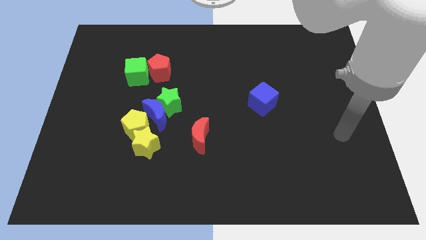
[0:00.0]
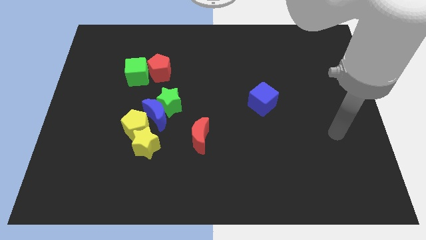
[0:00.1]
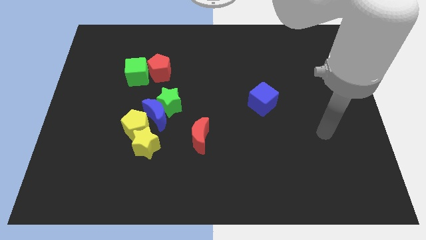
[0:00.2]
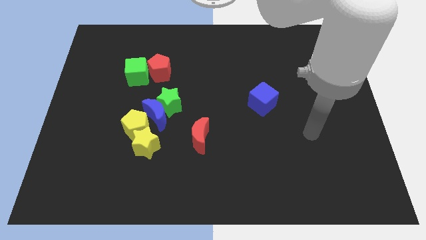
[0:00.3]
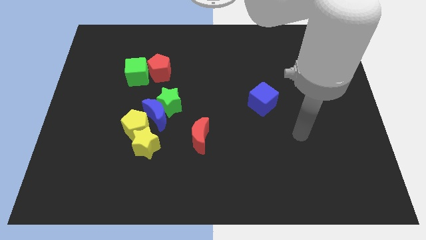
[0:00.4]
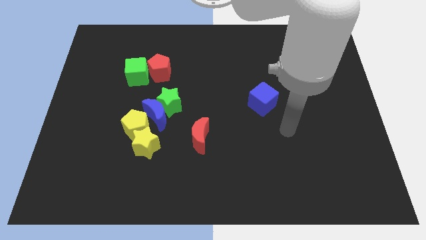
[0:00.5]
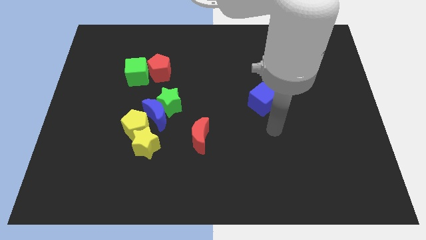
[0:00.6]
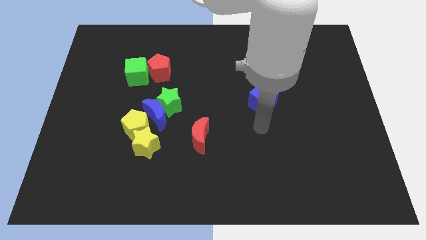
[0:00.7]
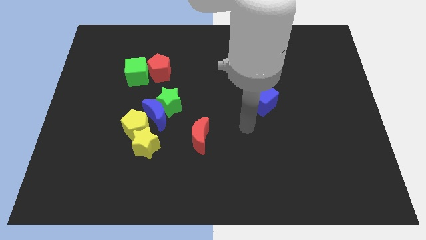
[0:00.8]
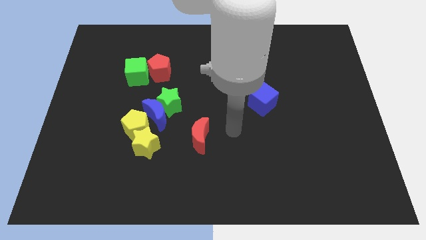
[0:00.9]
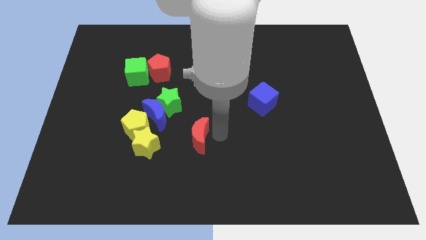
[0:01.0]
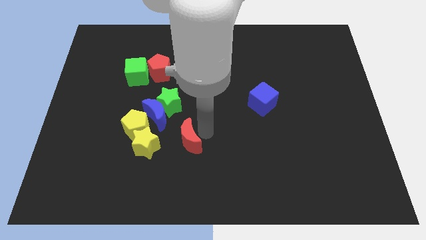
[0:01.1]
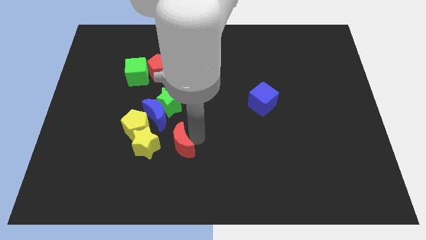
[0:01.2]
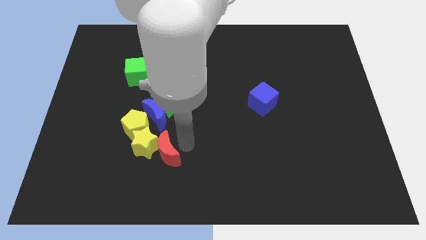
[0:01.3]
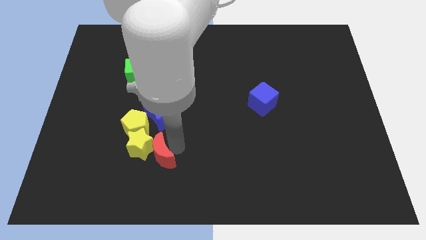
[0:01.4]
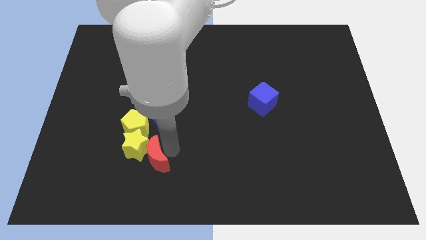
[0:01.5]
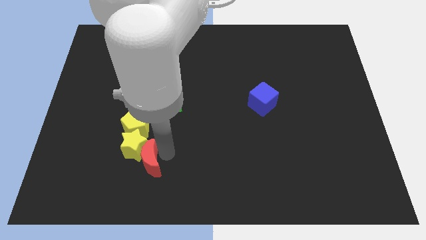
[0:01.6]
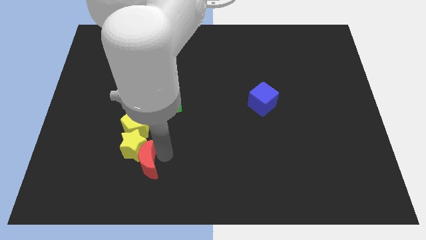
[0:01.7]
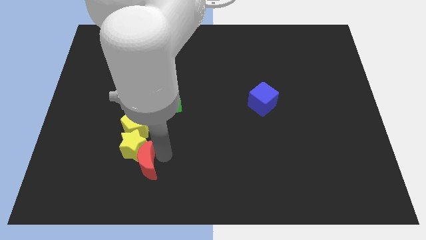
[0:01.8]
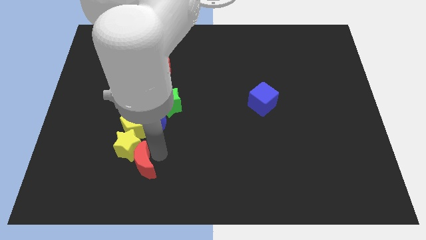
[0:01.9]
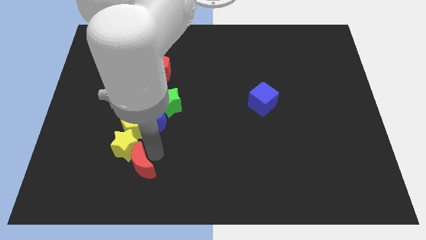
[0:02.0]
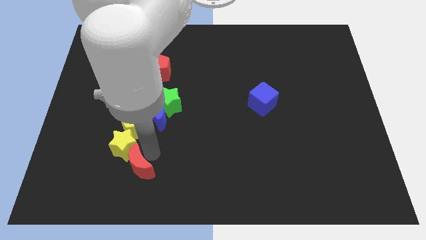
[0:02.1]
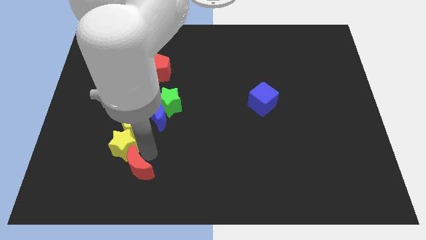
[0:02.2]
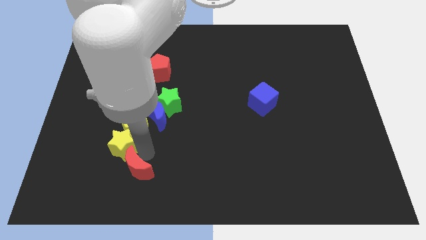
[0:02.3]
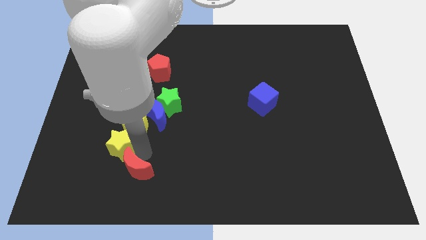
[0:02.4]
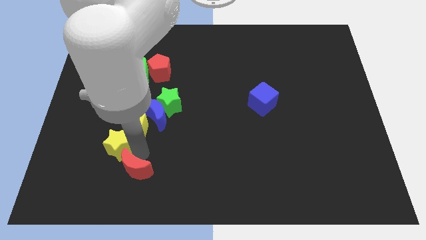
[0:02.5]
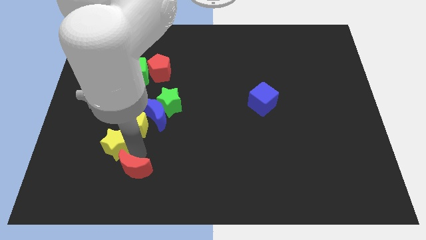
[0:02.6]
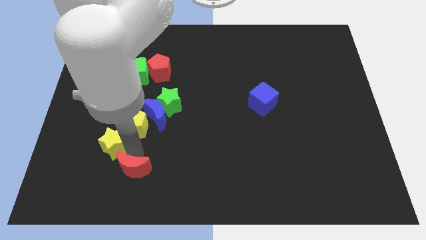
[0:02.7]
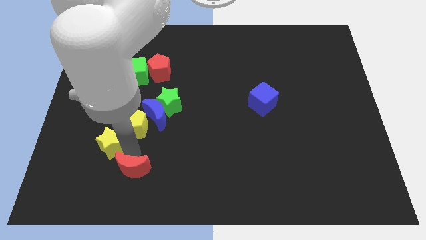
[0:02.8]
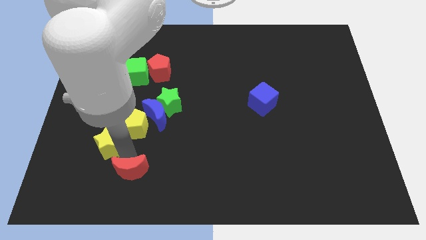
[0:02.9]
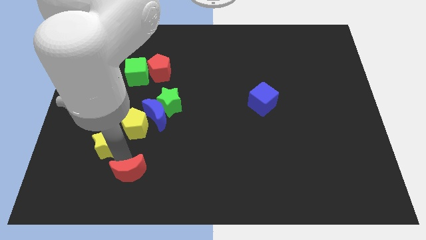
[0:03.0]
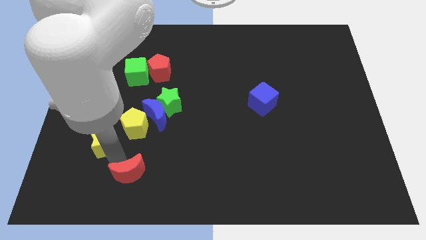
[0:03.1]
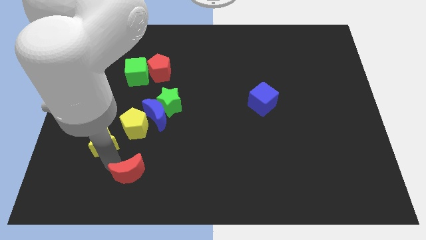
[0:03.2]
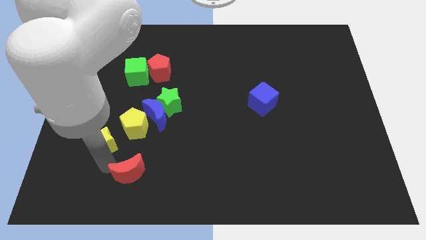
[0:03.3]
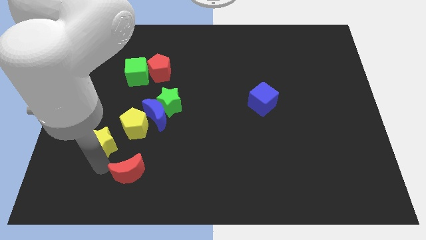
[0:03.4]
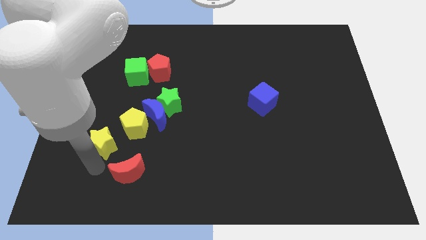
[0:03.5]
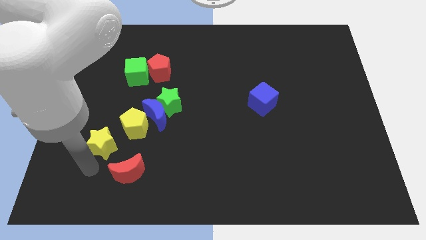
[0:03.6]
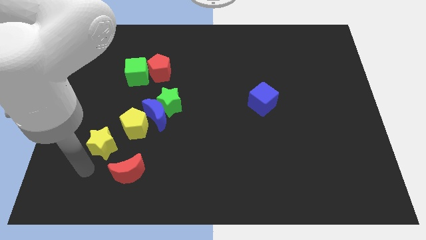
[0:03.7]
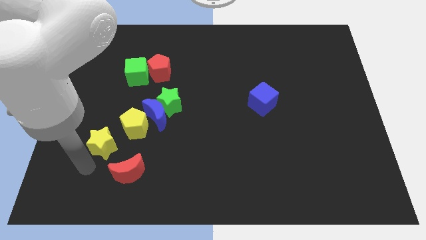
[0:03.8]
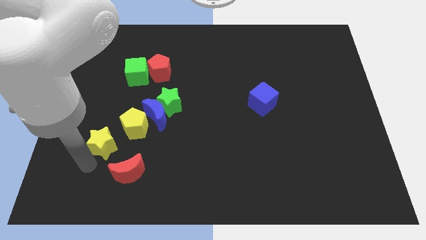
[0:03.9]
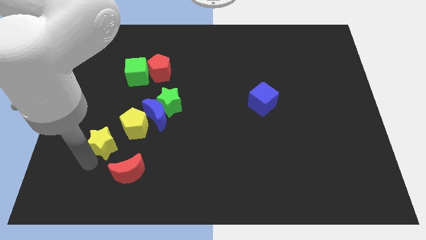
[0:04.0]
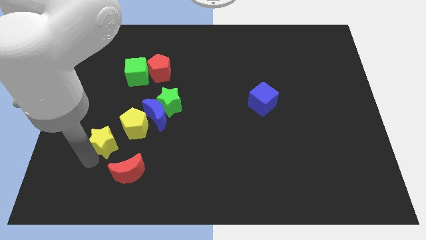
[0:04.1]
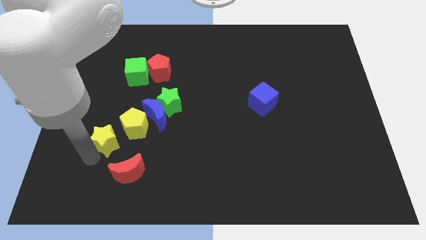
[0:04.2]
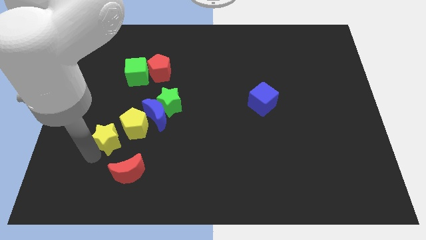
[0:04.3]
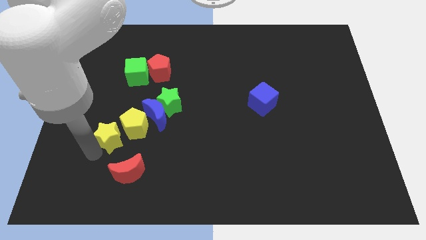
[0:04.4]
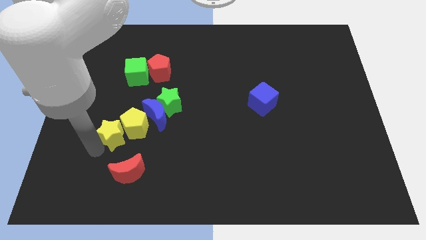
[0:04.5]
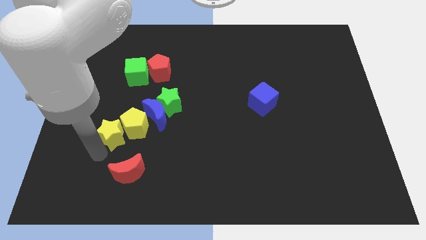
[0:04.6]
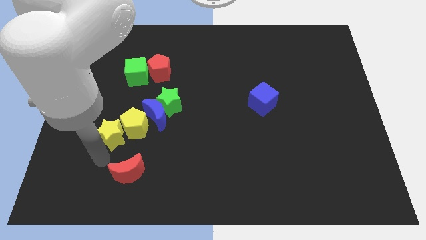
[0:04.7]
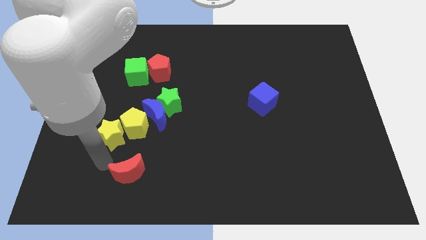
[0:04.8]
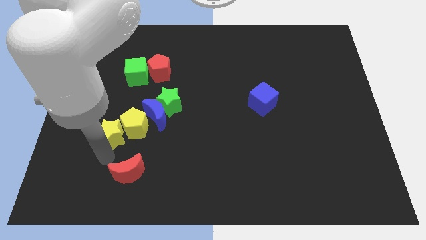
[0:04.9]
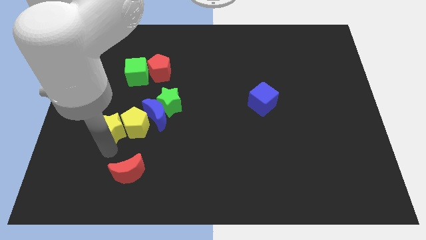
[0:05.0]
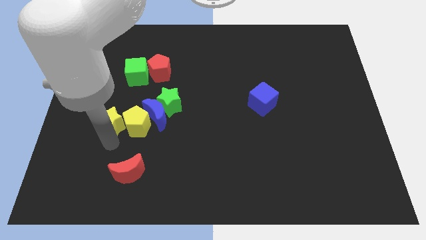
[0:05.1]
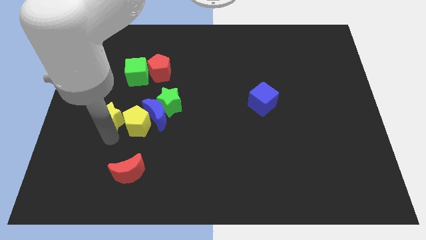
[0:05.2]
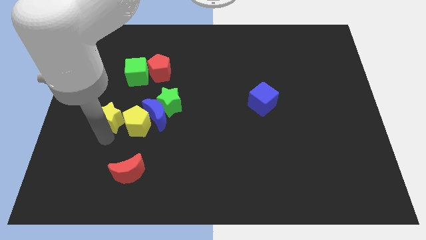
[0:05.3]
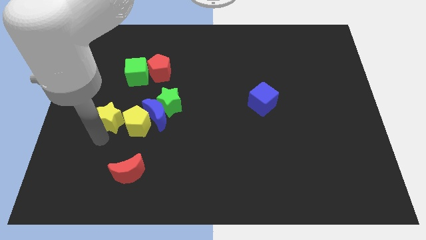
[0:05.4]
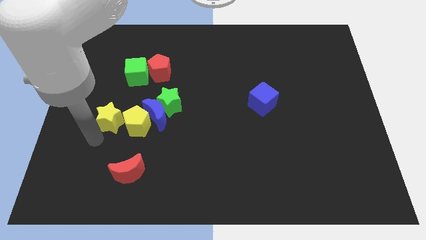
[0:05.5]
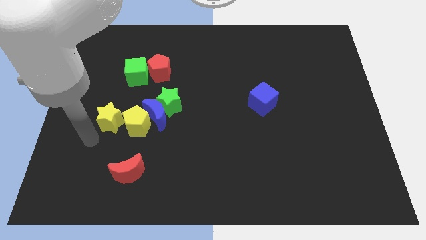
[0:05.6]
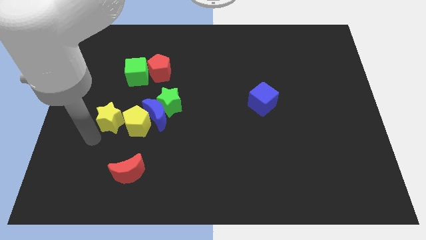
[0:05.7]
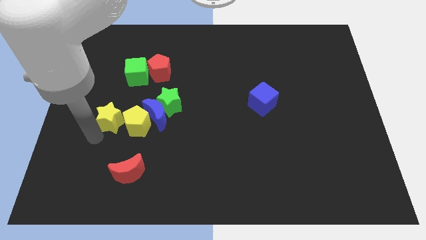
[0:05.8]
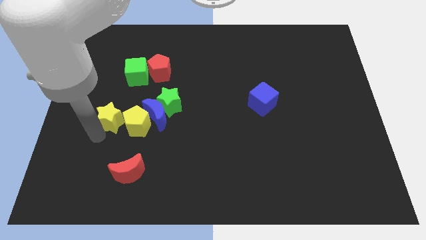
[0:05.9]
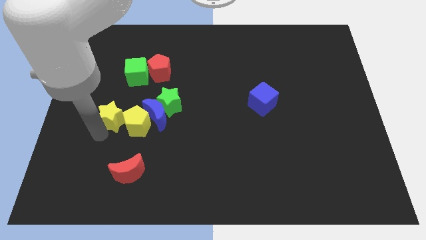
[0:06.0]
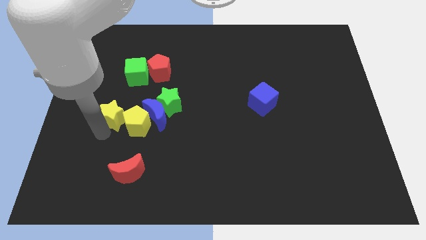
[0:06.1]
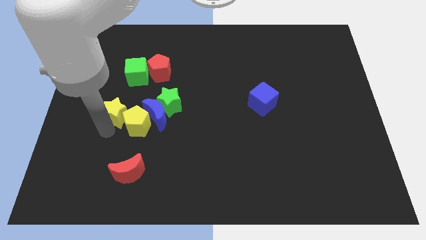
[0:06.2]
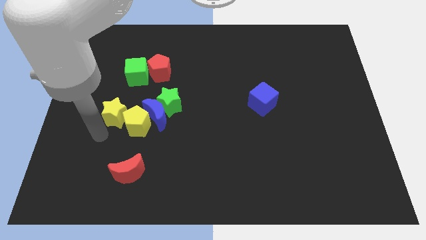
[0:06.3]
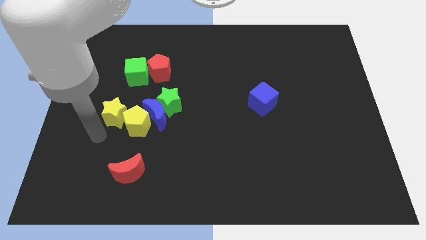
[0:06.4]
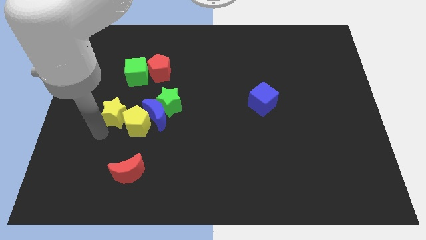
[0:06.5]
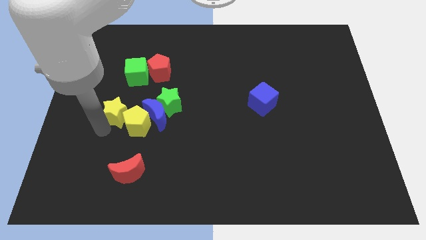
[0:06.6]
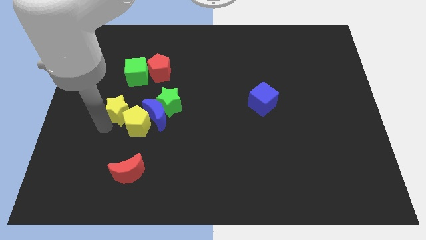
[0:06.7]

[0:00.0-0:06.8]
slide the yellow star to the top of the yellow pentagon
